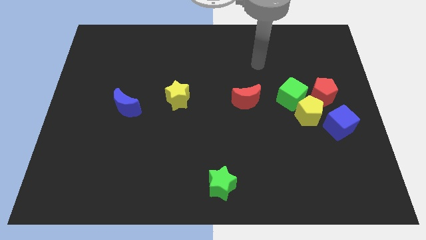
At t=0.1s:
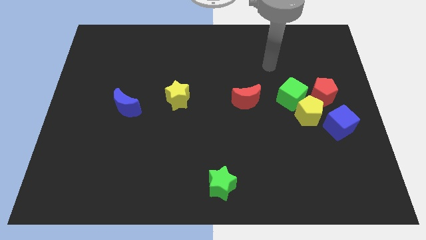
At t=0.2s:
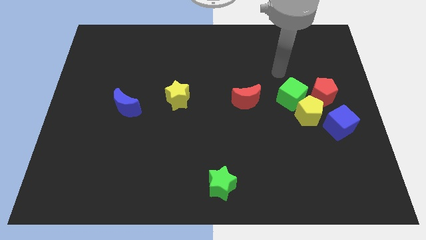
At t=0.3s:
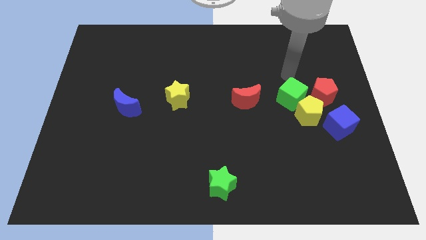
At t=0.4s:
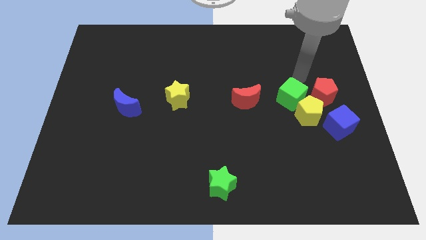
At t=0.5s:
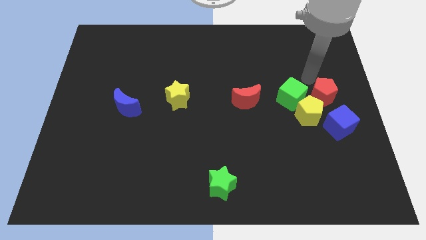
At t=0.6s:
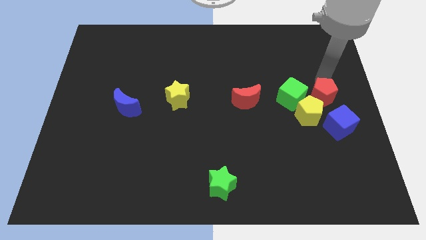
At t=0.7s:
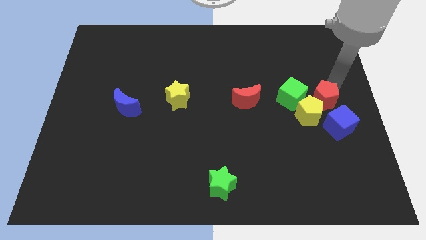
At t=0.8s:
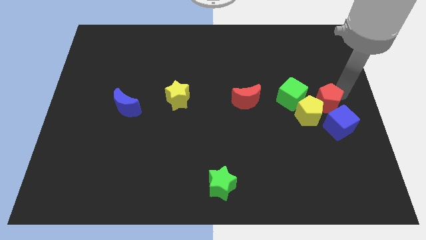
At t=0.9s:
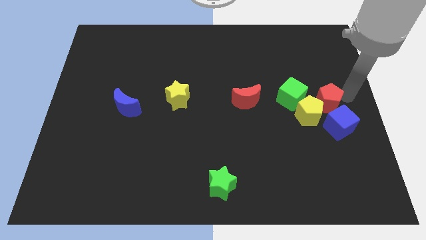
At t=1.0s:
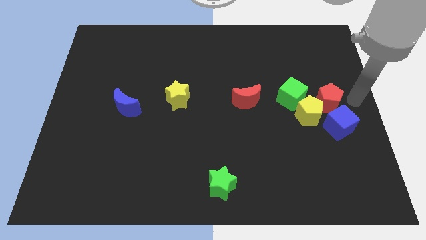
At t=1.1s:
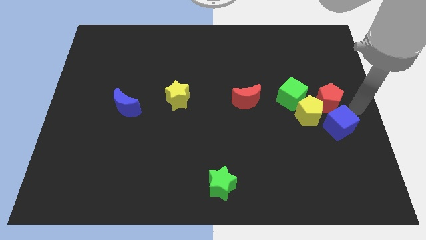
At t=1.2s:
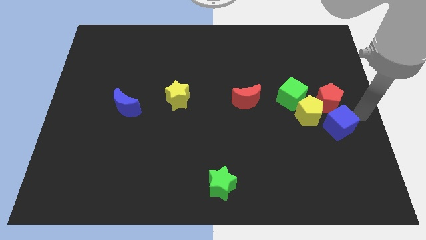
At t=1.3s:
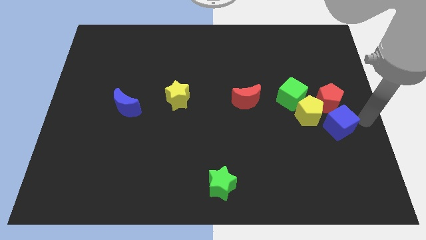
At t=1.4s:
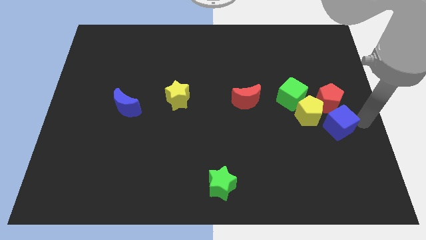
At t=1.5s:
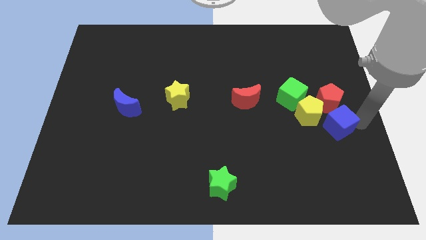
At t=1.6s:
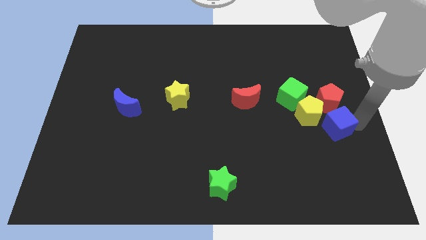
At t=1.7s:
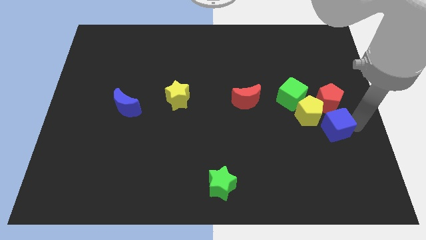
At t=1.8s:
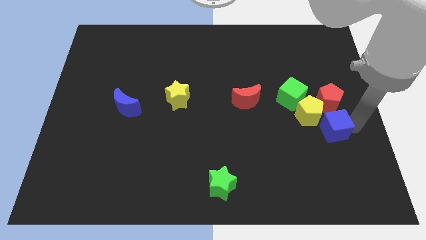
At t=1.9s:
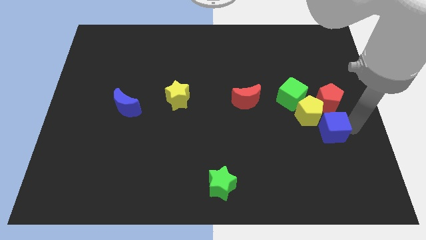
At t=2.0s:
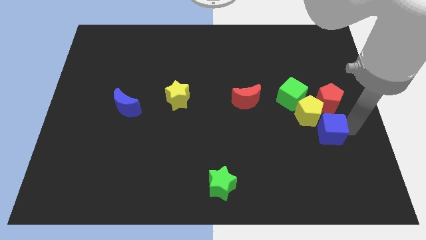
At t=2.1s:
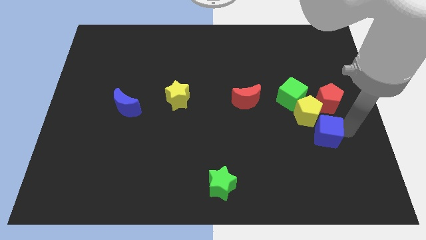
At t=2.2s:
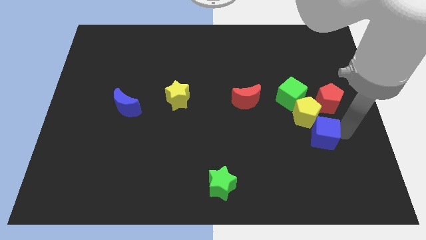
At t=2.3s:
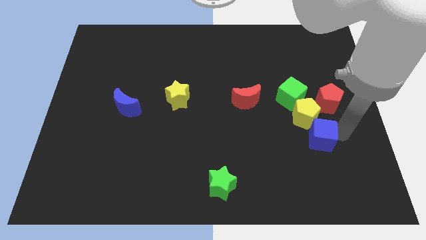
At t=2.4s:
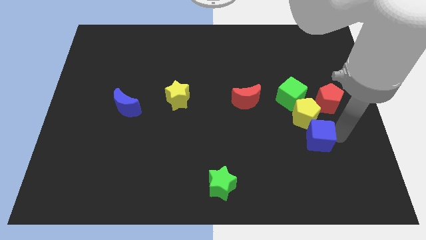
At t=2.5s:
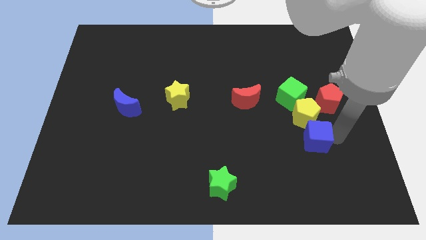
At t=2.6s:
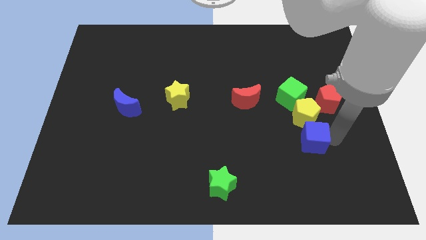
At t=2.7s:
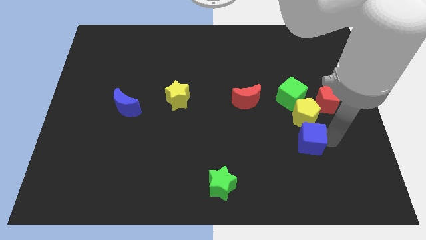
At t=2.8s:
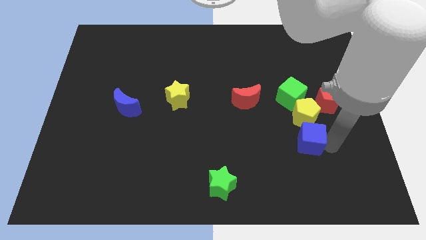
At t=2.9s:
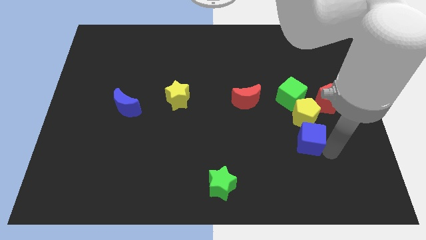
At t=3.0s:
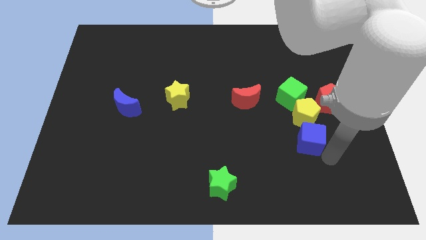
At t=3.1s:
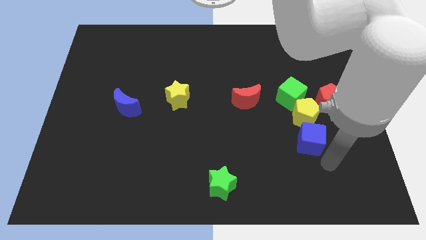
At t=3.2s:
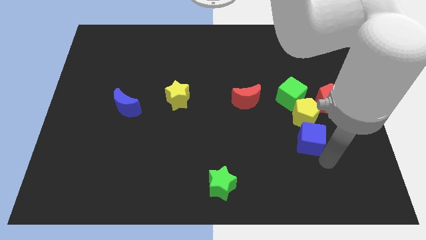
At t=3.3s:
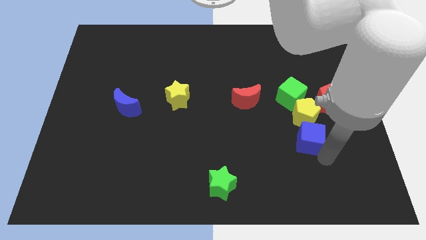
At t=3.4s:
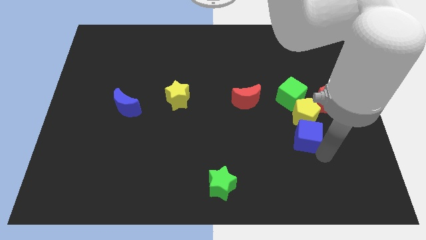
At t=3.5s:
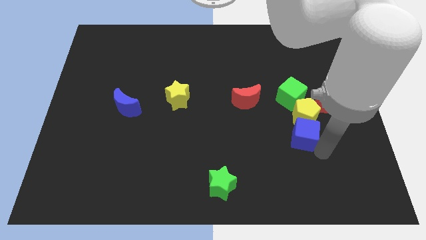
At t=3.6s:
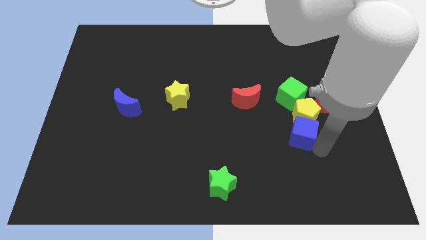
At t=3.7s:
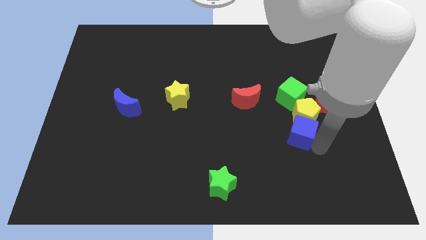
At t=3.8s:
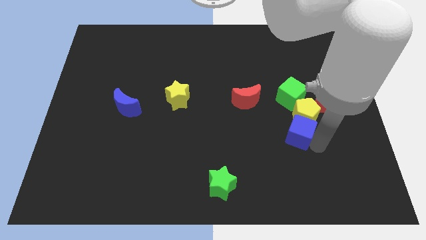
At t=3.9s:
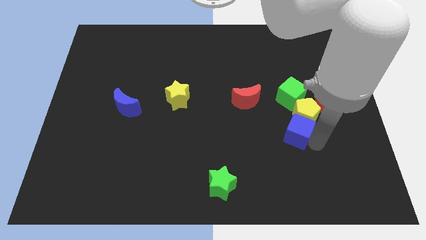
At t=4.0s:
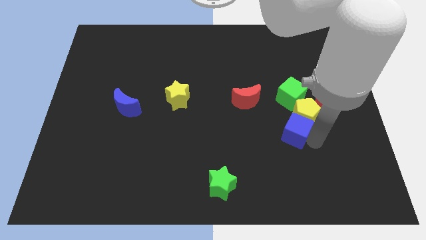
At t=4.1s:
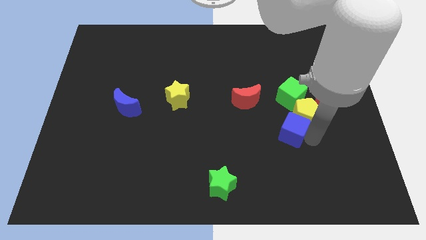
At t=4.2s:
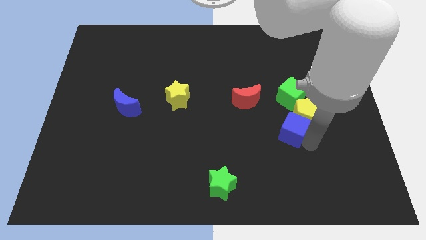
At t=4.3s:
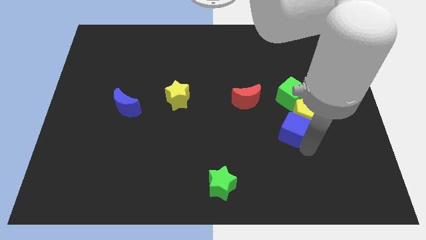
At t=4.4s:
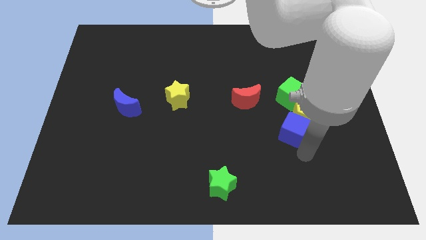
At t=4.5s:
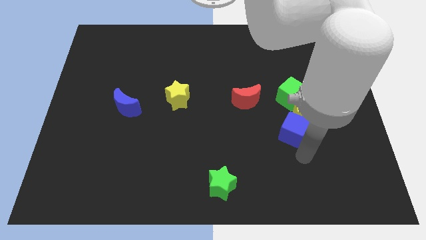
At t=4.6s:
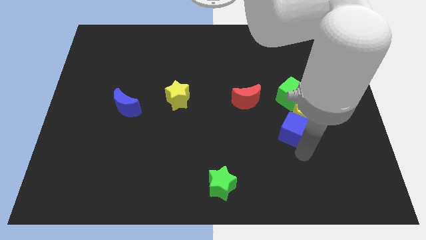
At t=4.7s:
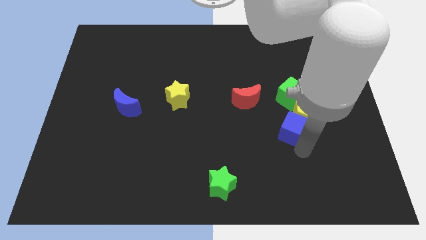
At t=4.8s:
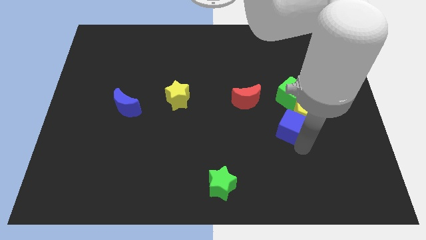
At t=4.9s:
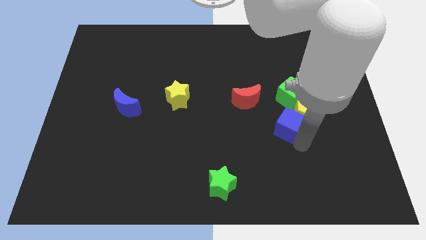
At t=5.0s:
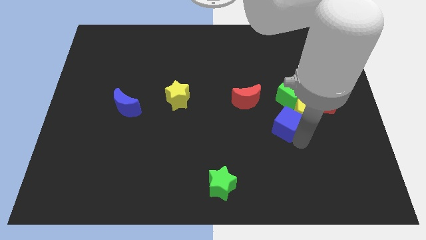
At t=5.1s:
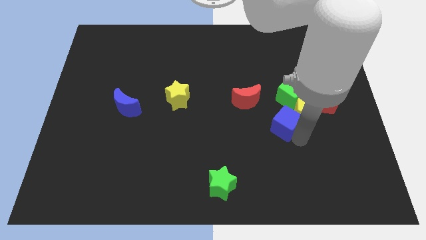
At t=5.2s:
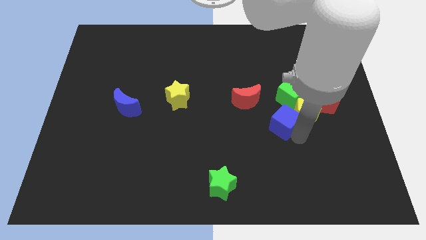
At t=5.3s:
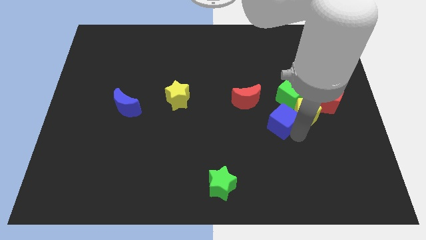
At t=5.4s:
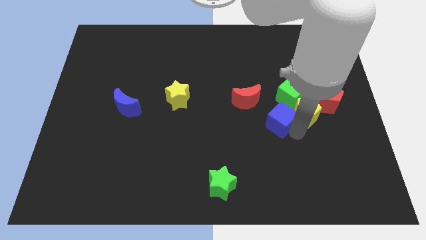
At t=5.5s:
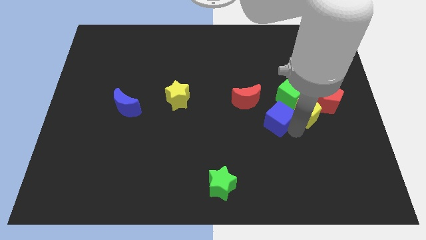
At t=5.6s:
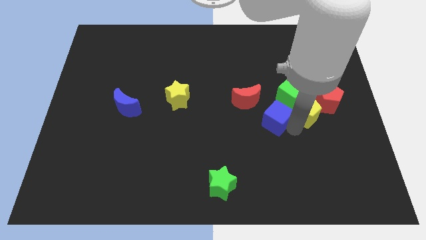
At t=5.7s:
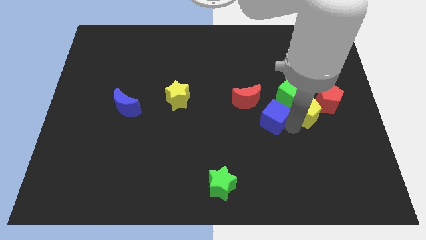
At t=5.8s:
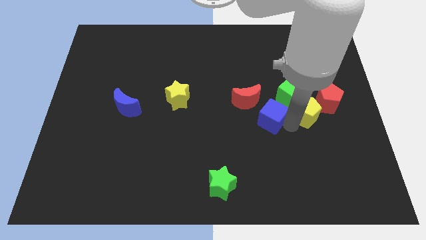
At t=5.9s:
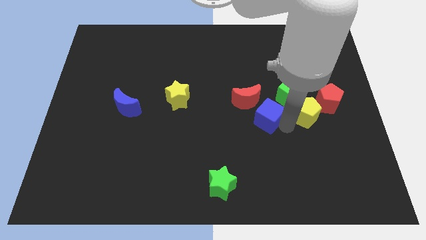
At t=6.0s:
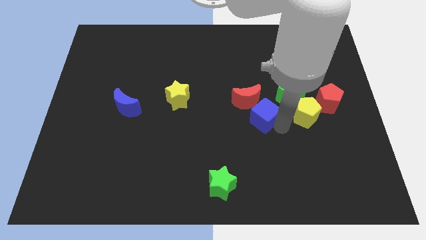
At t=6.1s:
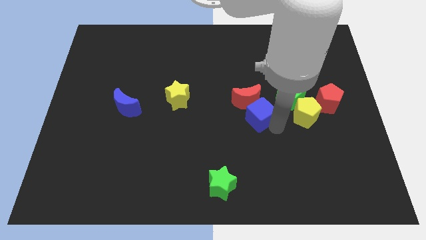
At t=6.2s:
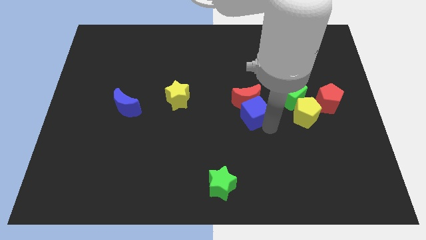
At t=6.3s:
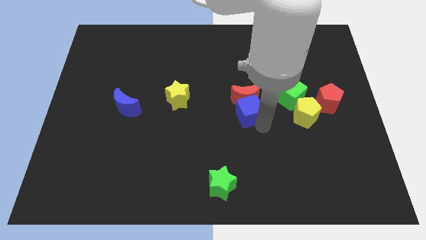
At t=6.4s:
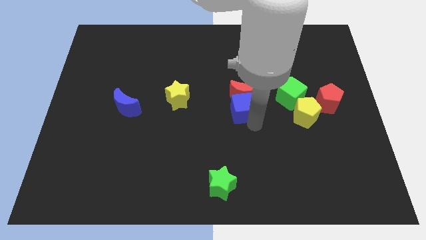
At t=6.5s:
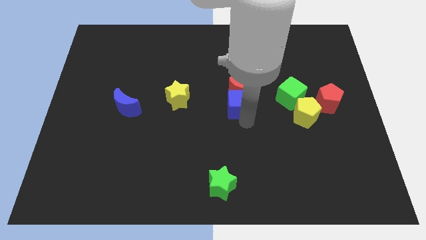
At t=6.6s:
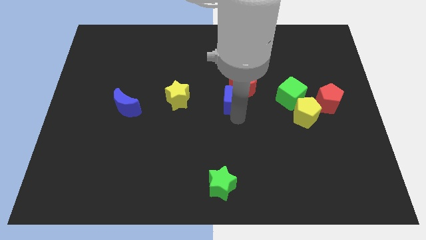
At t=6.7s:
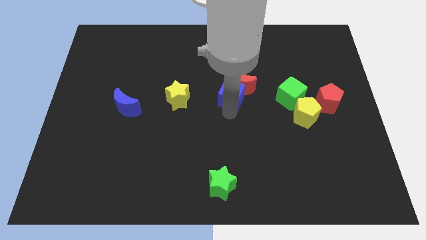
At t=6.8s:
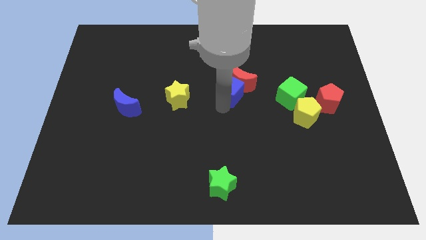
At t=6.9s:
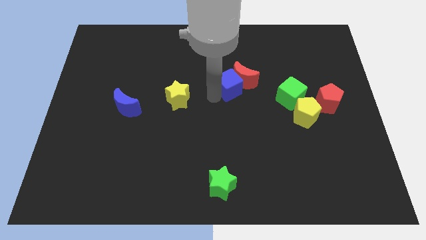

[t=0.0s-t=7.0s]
move the blue cube diagonally up and to the left

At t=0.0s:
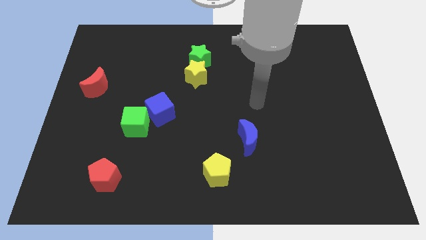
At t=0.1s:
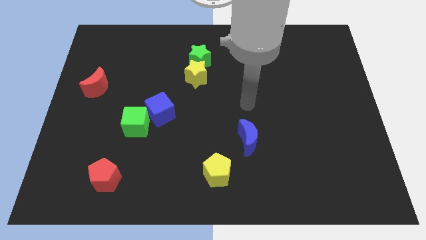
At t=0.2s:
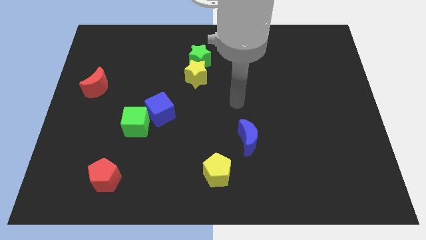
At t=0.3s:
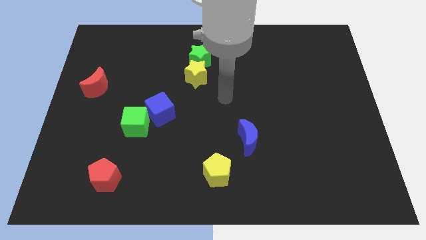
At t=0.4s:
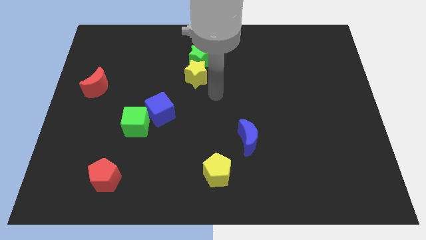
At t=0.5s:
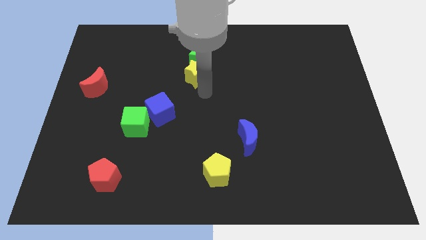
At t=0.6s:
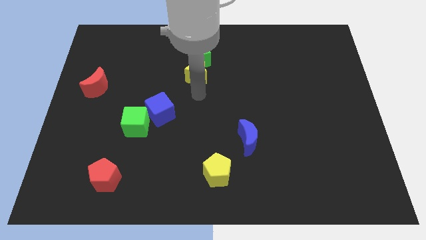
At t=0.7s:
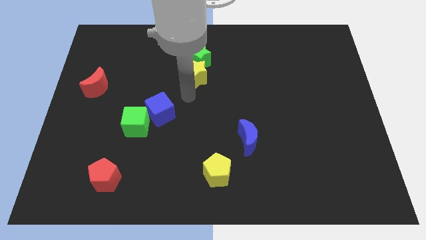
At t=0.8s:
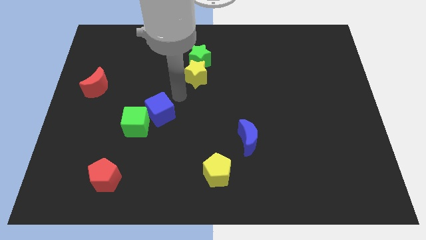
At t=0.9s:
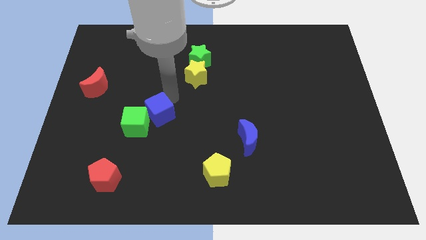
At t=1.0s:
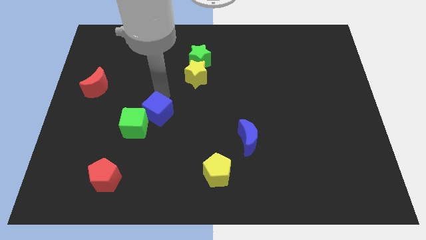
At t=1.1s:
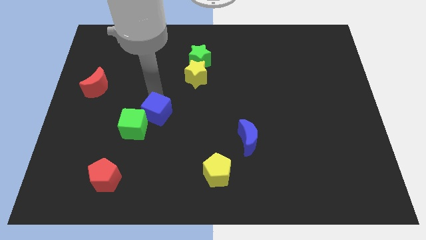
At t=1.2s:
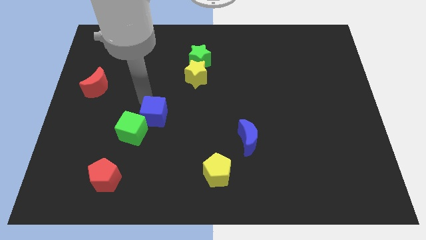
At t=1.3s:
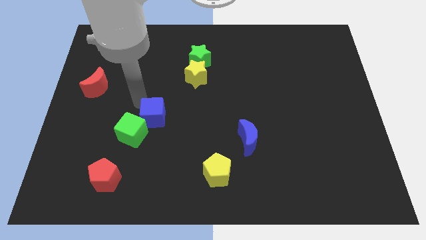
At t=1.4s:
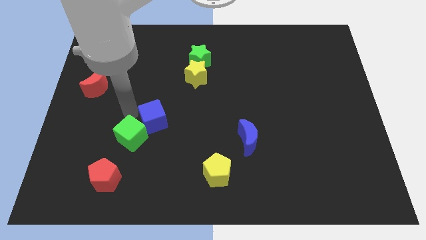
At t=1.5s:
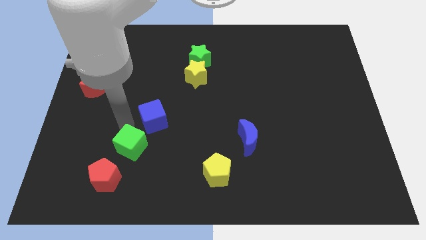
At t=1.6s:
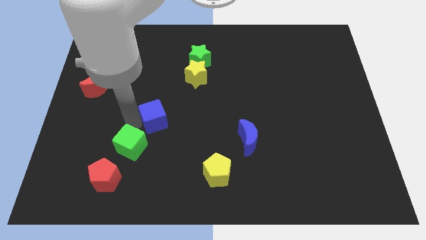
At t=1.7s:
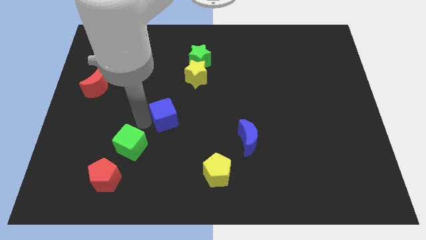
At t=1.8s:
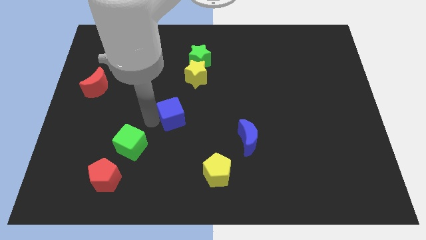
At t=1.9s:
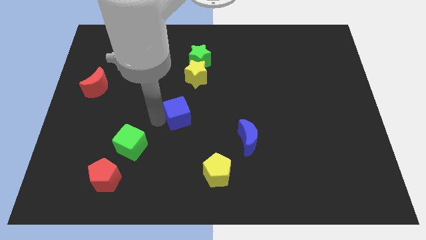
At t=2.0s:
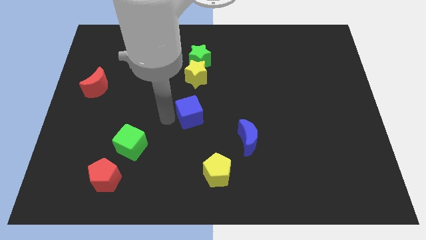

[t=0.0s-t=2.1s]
push the blue cube to the right somewhat
